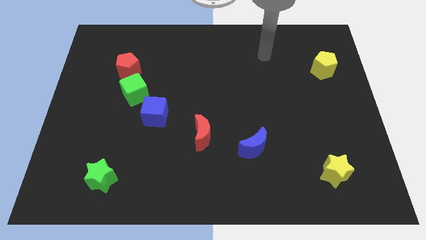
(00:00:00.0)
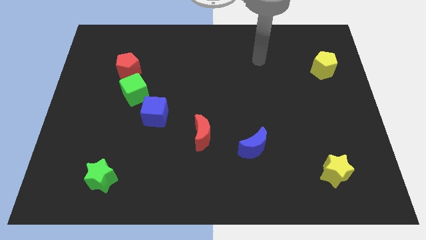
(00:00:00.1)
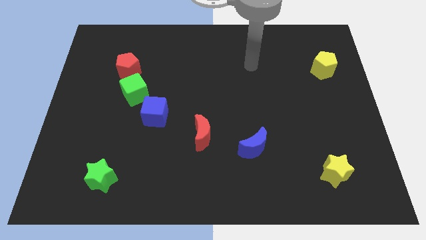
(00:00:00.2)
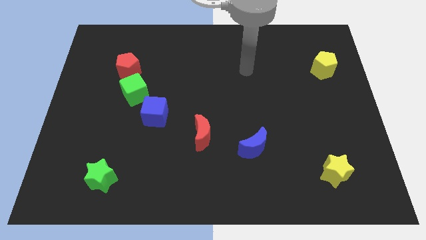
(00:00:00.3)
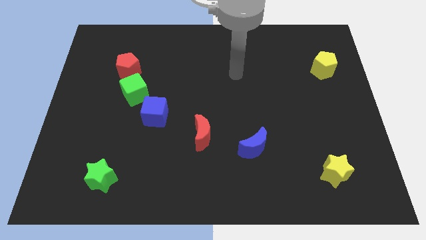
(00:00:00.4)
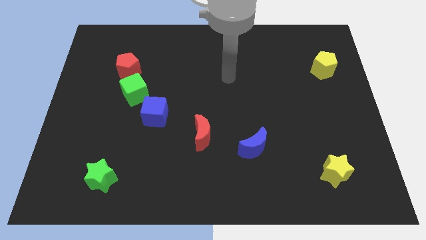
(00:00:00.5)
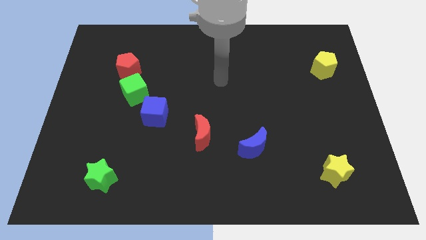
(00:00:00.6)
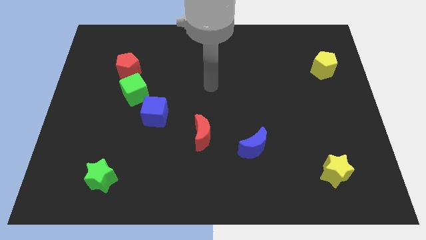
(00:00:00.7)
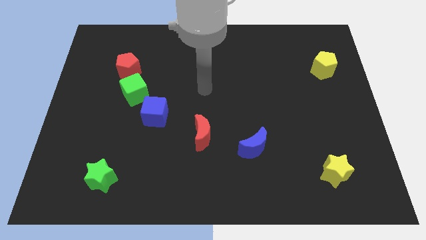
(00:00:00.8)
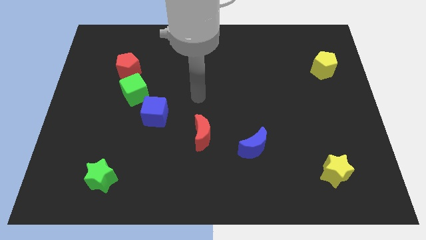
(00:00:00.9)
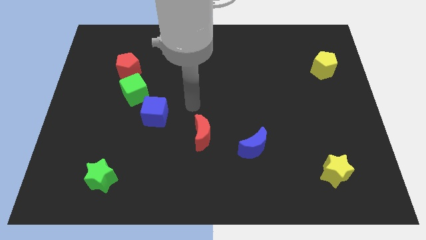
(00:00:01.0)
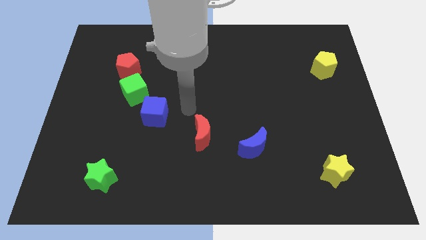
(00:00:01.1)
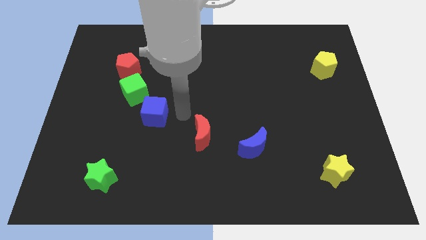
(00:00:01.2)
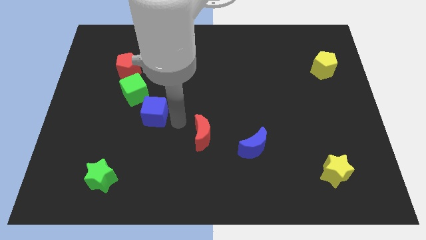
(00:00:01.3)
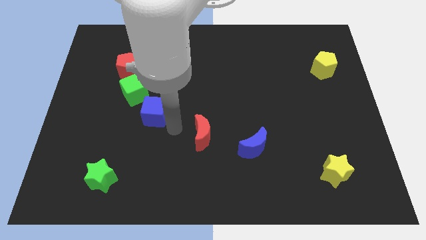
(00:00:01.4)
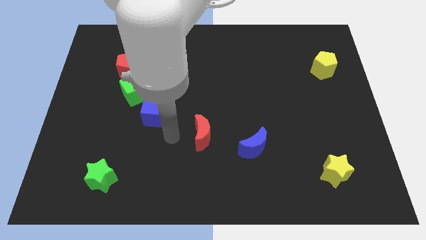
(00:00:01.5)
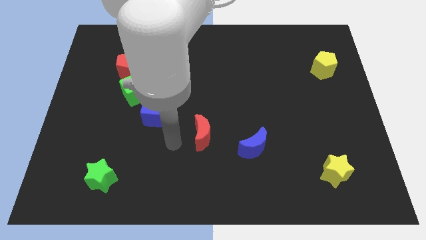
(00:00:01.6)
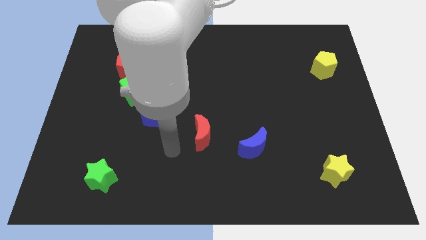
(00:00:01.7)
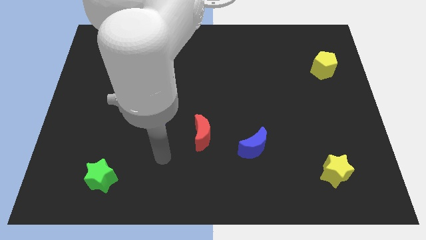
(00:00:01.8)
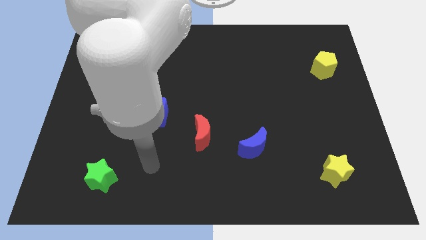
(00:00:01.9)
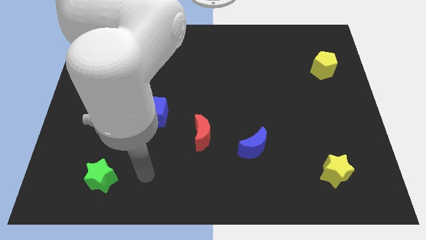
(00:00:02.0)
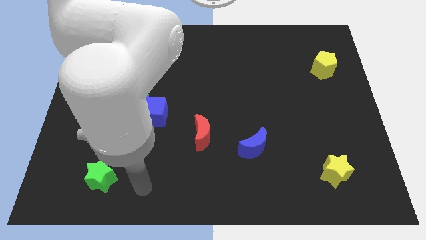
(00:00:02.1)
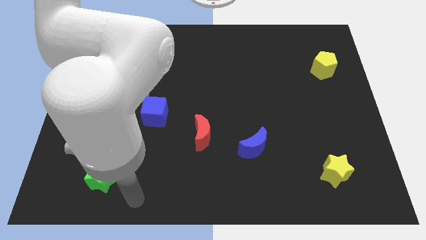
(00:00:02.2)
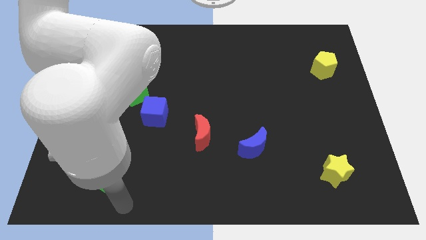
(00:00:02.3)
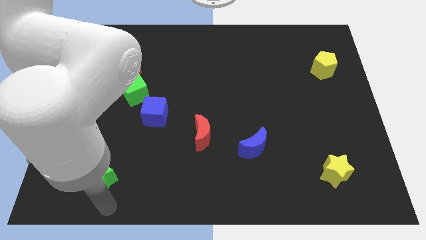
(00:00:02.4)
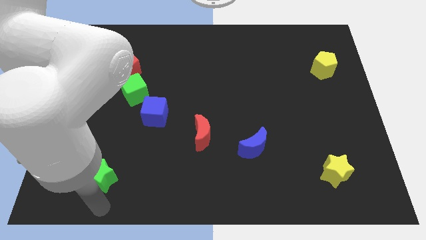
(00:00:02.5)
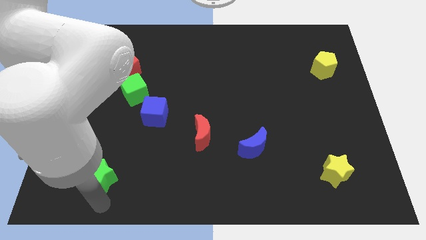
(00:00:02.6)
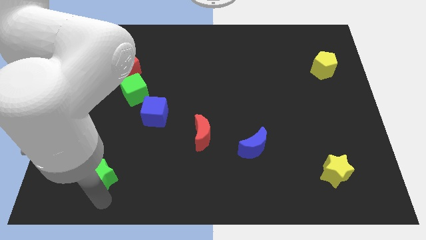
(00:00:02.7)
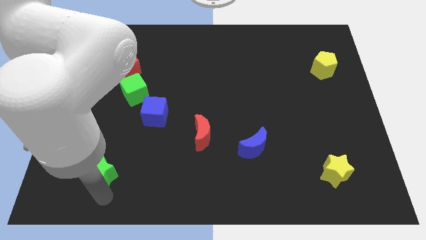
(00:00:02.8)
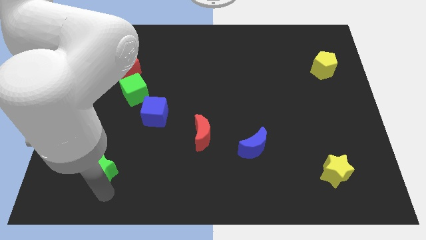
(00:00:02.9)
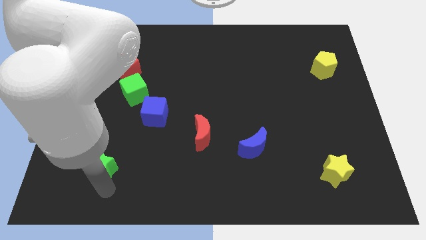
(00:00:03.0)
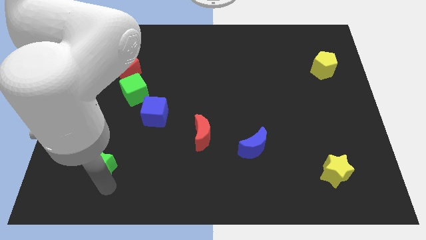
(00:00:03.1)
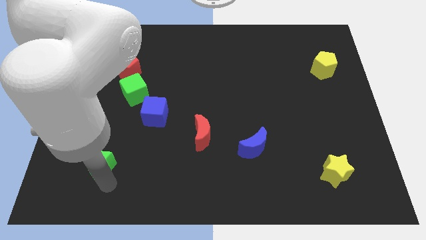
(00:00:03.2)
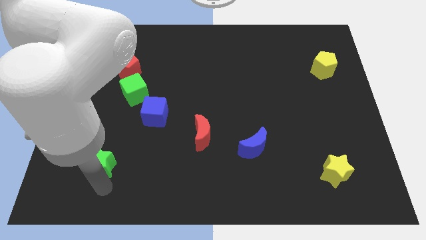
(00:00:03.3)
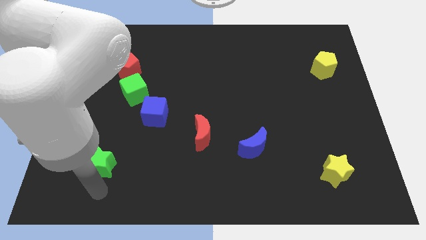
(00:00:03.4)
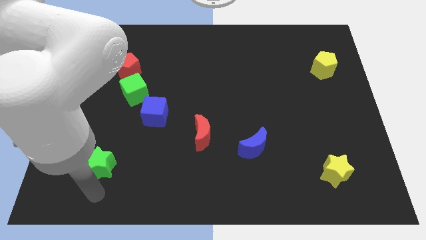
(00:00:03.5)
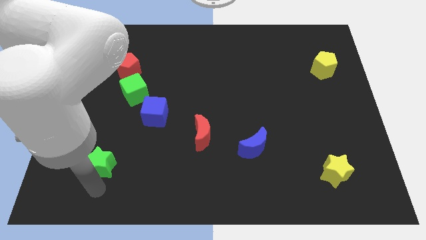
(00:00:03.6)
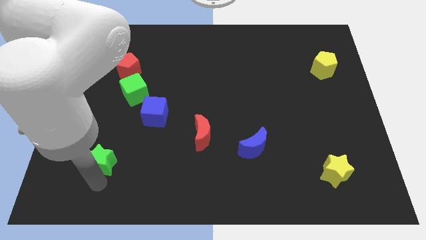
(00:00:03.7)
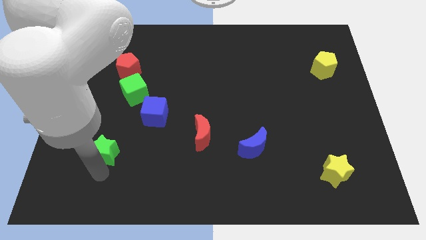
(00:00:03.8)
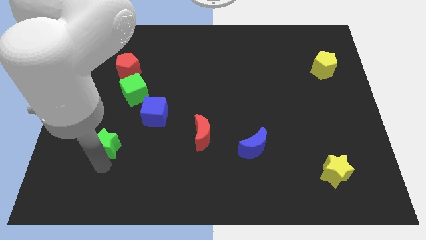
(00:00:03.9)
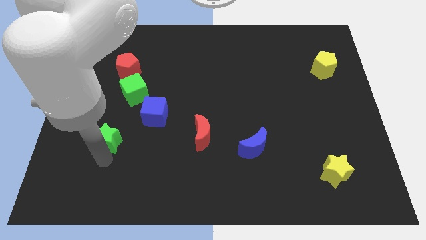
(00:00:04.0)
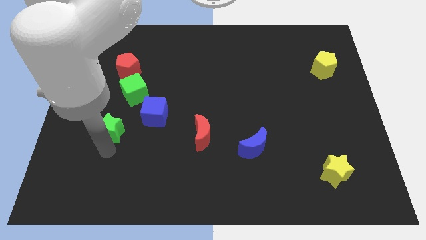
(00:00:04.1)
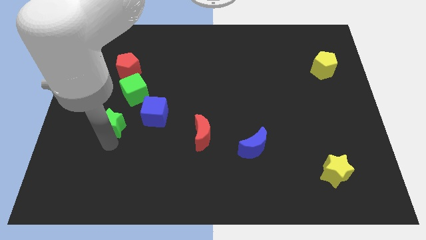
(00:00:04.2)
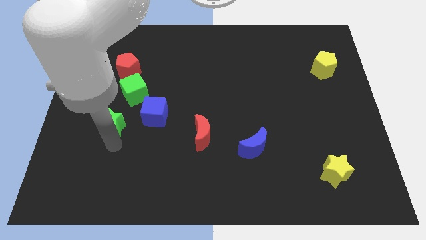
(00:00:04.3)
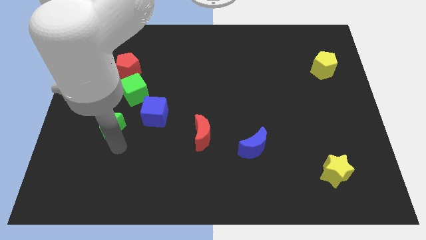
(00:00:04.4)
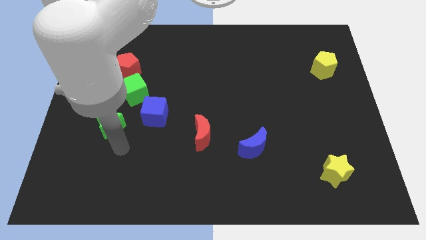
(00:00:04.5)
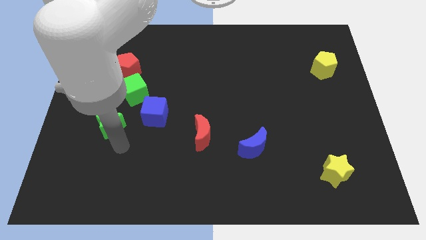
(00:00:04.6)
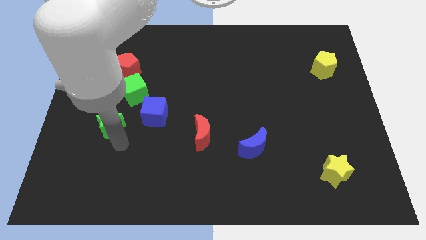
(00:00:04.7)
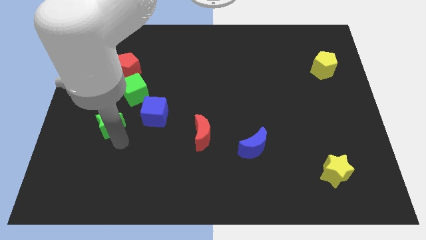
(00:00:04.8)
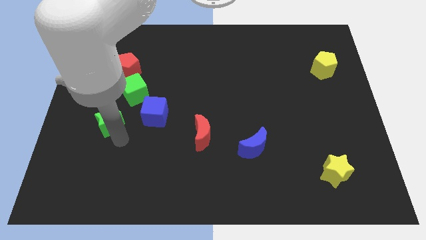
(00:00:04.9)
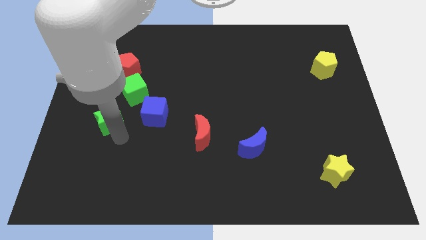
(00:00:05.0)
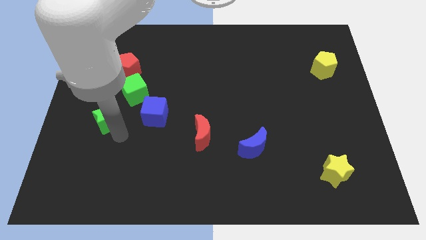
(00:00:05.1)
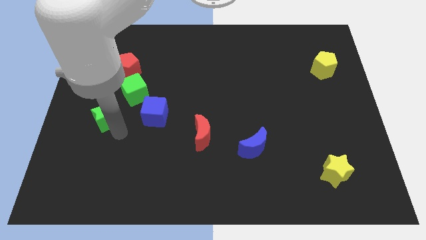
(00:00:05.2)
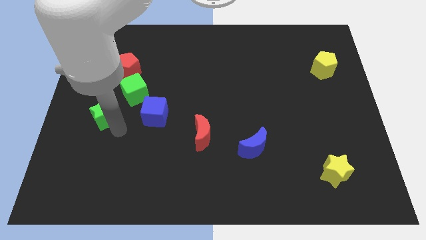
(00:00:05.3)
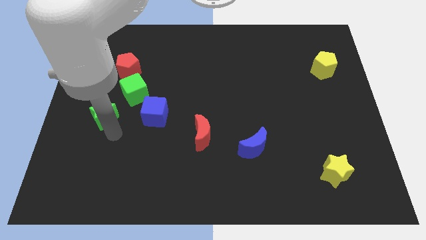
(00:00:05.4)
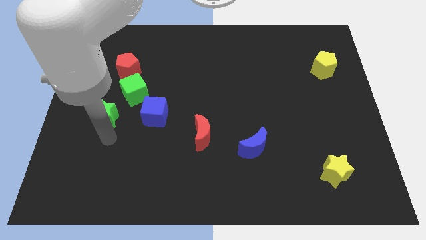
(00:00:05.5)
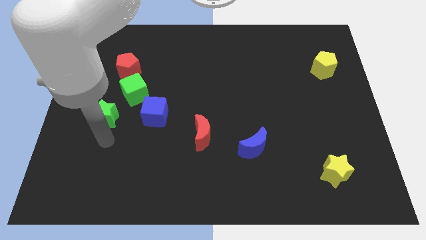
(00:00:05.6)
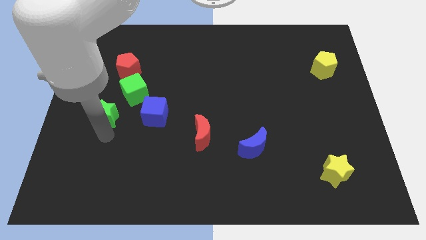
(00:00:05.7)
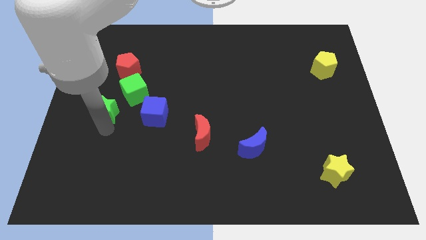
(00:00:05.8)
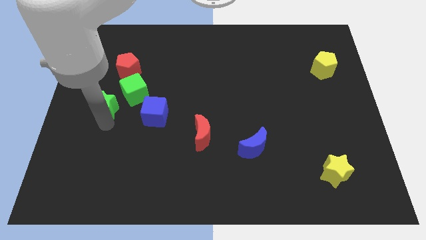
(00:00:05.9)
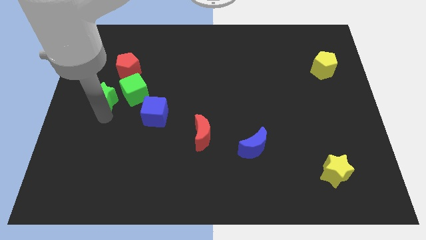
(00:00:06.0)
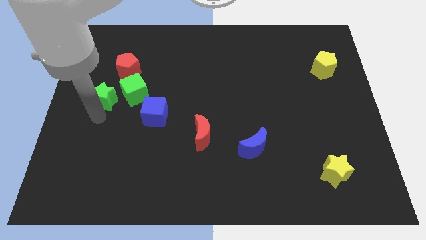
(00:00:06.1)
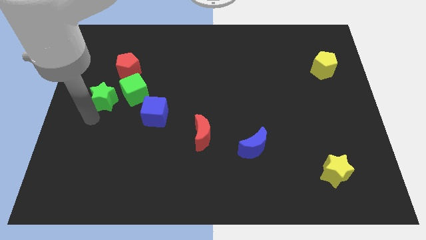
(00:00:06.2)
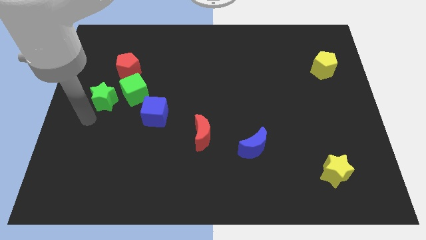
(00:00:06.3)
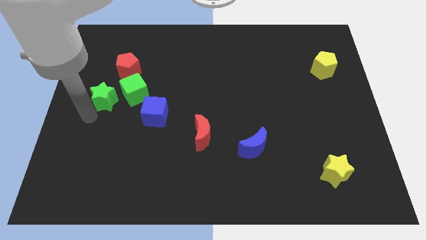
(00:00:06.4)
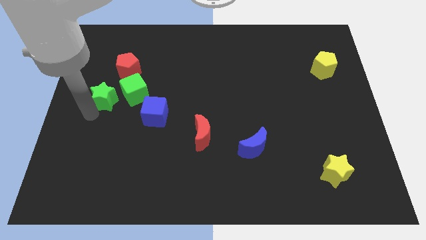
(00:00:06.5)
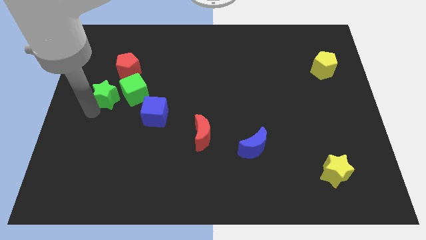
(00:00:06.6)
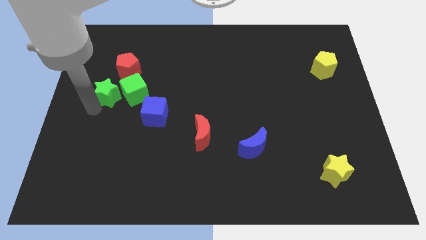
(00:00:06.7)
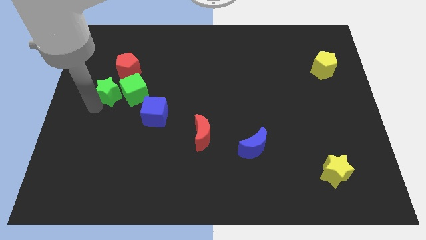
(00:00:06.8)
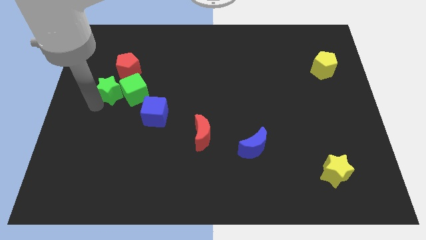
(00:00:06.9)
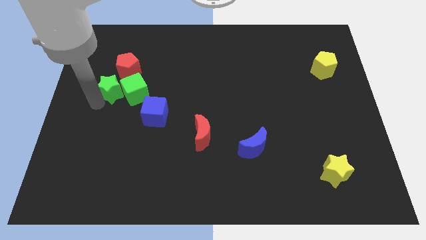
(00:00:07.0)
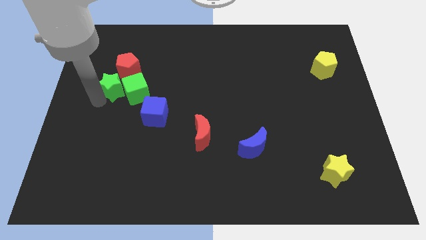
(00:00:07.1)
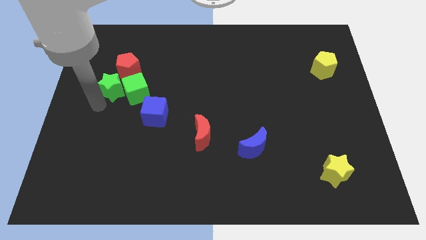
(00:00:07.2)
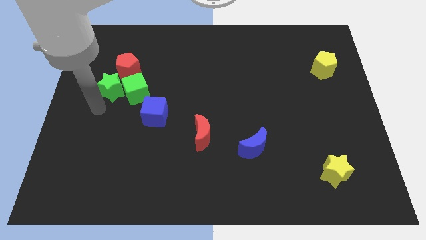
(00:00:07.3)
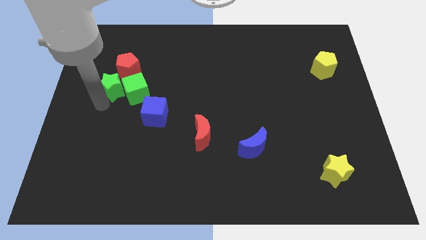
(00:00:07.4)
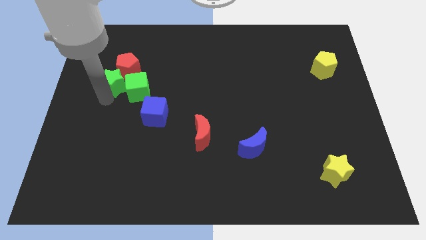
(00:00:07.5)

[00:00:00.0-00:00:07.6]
move the green star to the red pentagon
